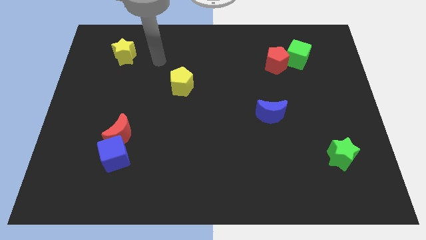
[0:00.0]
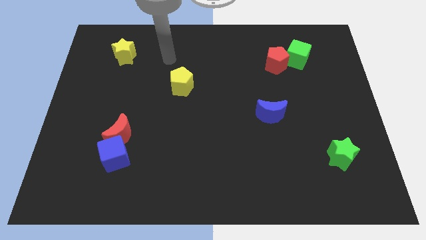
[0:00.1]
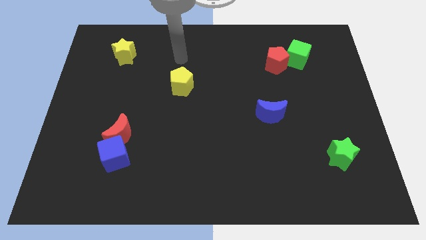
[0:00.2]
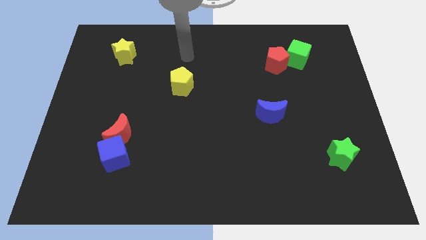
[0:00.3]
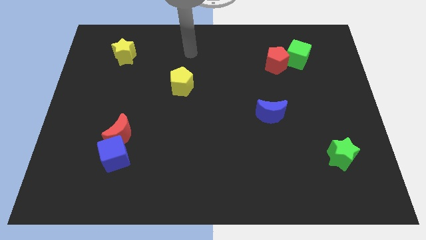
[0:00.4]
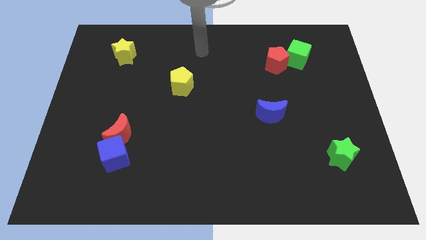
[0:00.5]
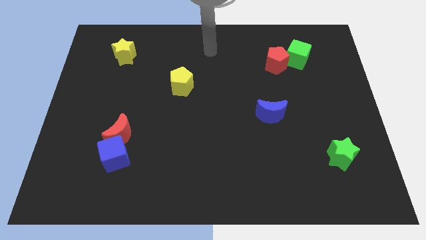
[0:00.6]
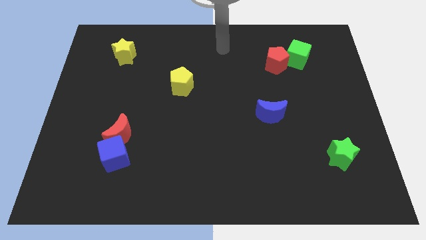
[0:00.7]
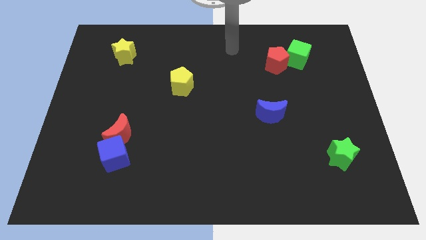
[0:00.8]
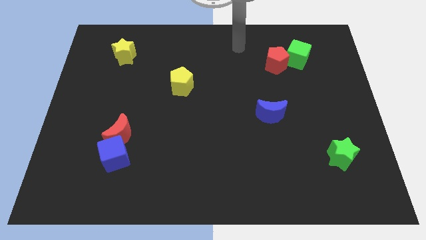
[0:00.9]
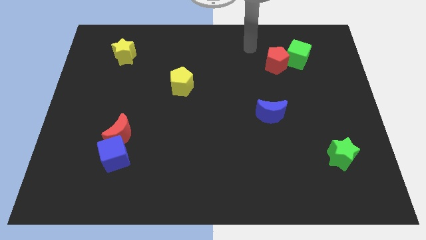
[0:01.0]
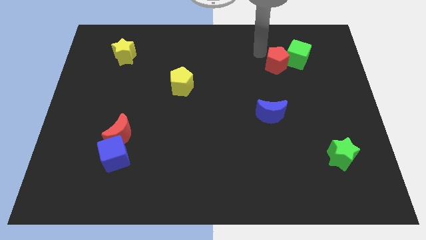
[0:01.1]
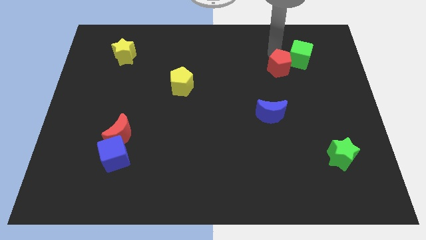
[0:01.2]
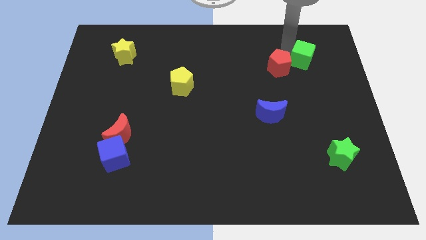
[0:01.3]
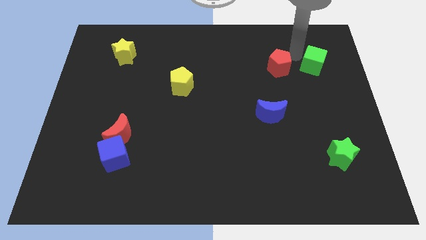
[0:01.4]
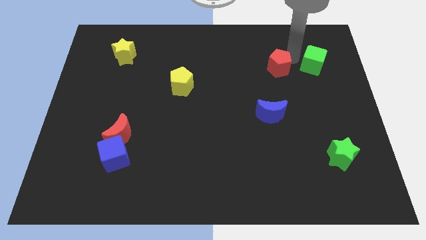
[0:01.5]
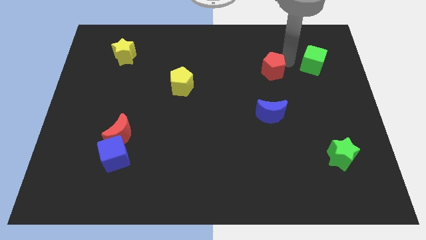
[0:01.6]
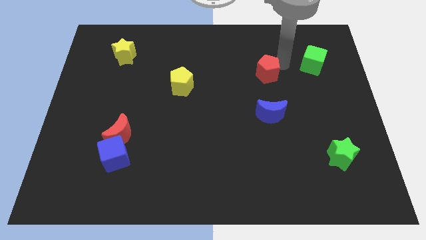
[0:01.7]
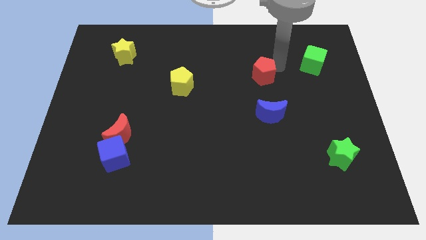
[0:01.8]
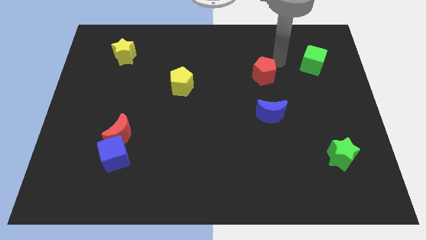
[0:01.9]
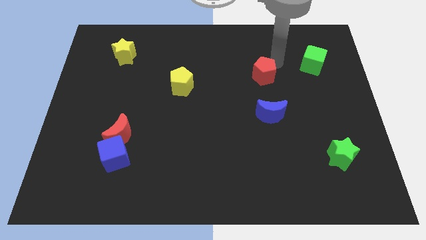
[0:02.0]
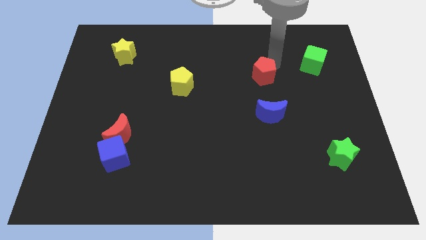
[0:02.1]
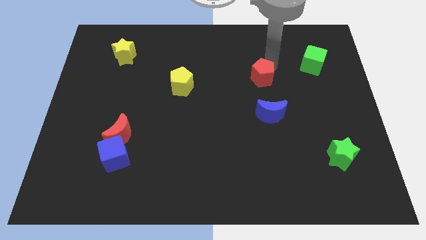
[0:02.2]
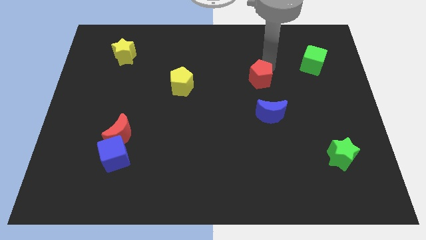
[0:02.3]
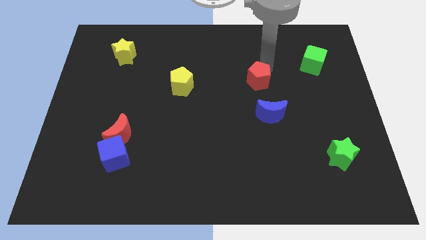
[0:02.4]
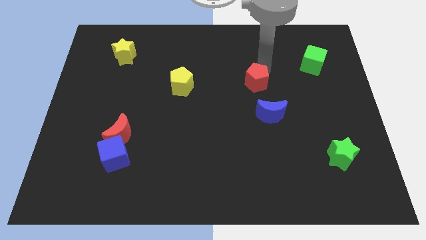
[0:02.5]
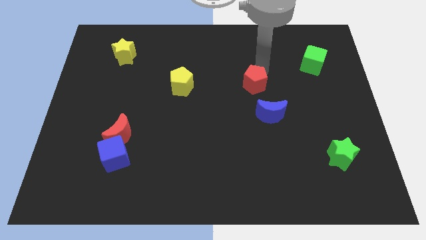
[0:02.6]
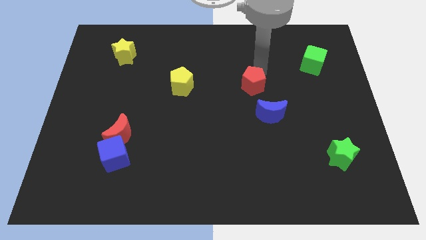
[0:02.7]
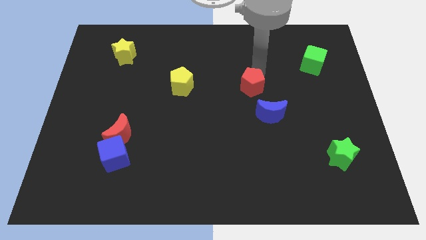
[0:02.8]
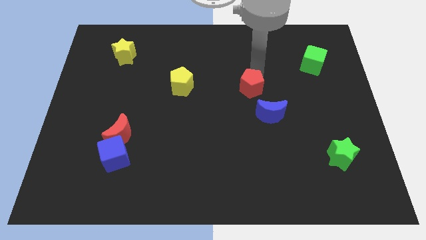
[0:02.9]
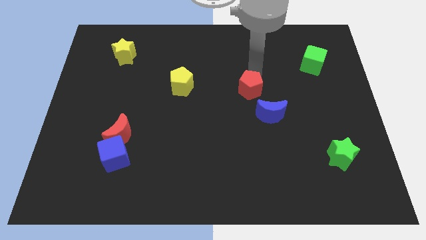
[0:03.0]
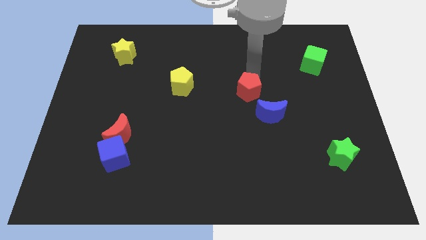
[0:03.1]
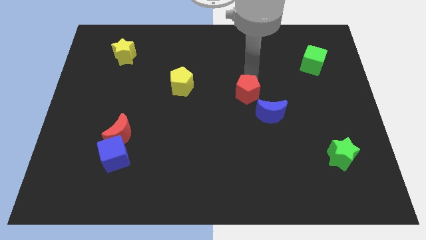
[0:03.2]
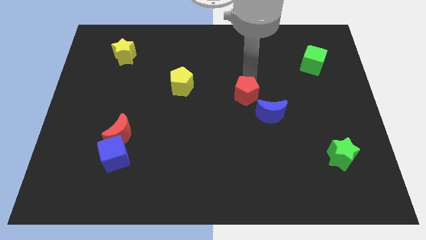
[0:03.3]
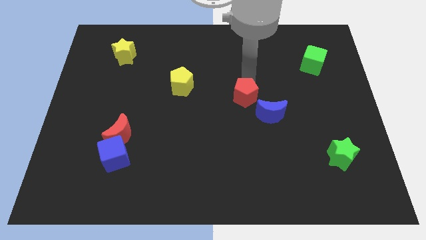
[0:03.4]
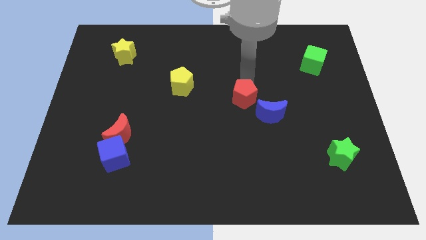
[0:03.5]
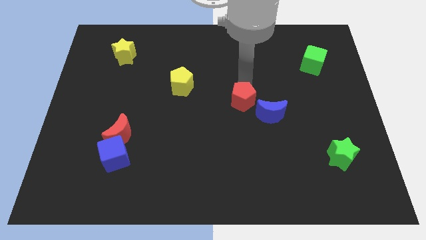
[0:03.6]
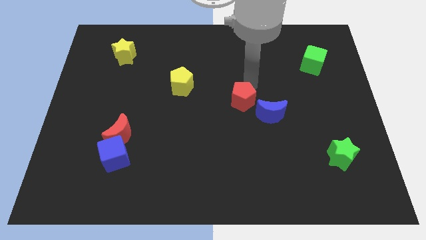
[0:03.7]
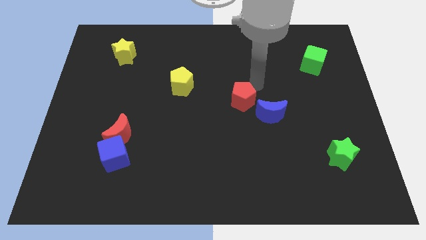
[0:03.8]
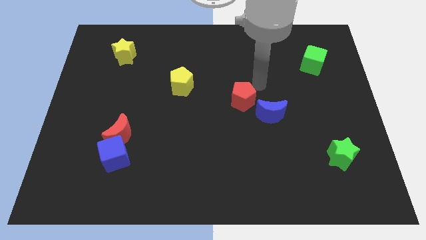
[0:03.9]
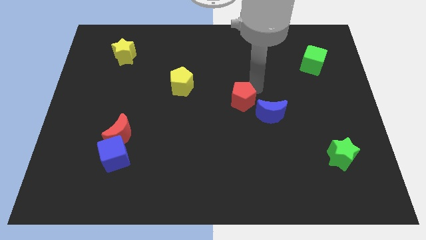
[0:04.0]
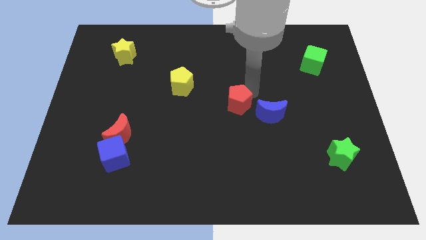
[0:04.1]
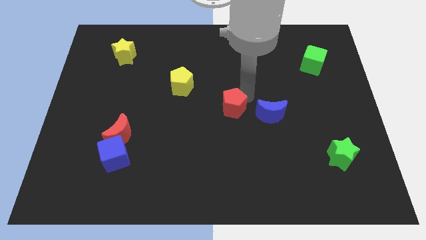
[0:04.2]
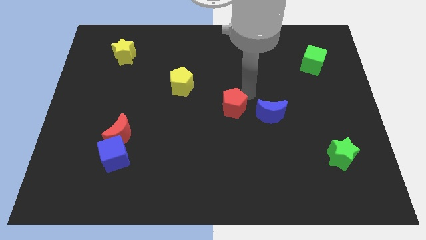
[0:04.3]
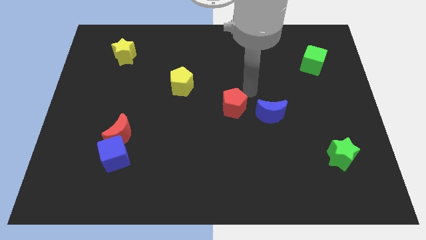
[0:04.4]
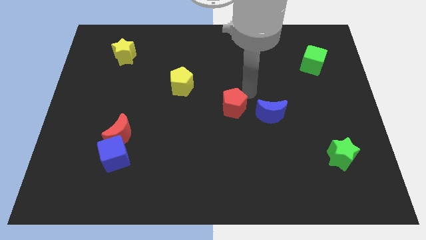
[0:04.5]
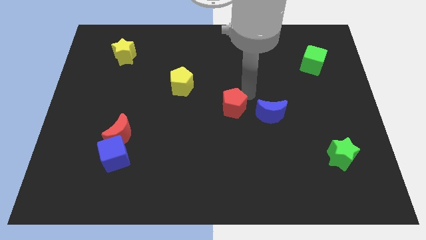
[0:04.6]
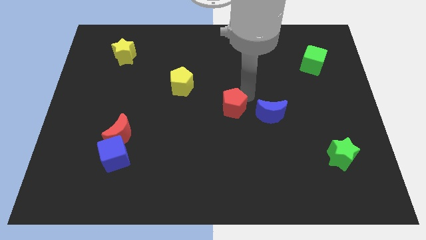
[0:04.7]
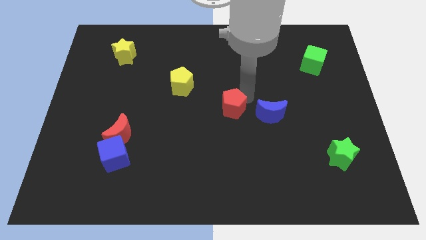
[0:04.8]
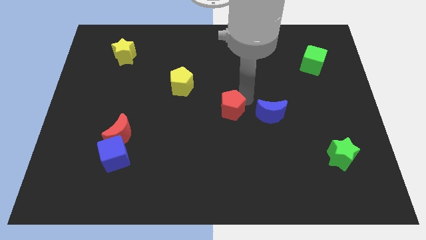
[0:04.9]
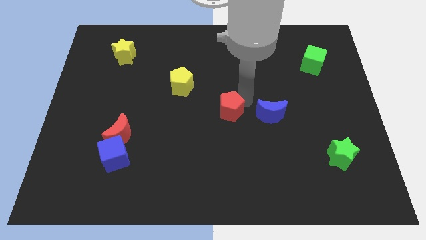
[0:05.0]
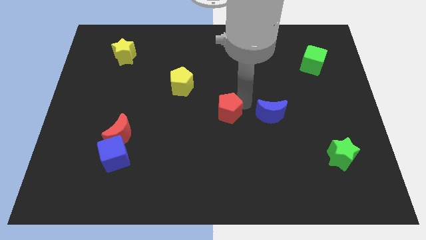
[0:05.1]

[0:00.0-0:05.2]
move the red pentagon diagonally down and left

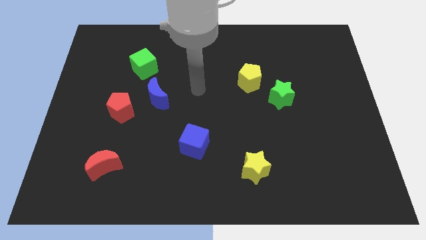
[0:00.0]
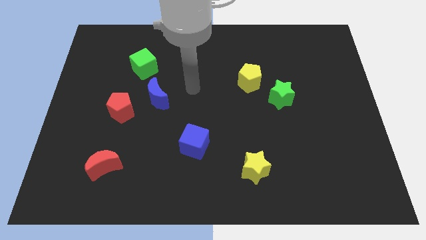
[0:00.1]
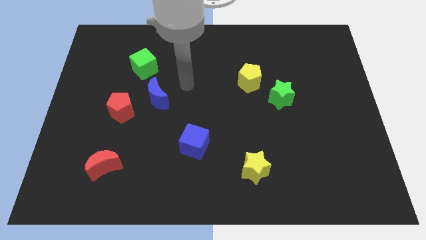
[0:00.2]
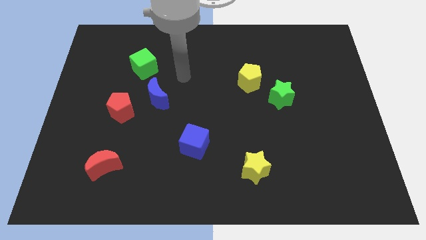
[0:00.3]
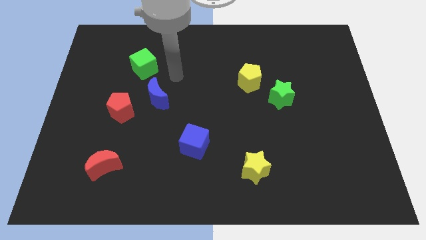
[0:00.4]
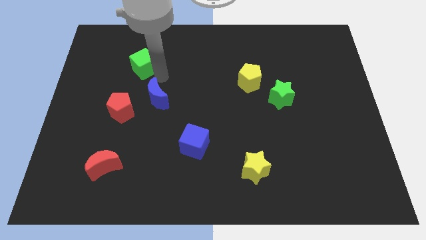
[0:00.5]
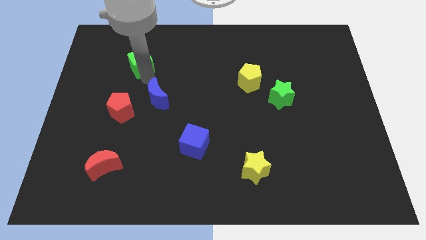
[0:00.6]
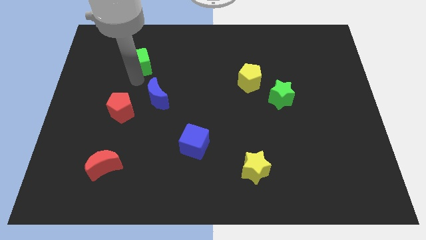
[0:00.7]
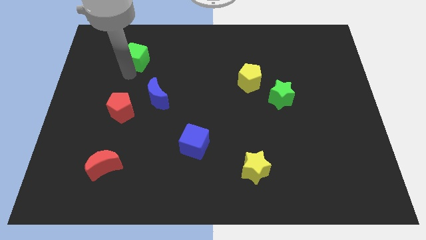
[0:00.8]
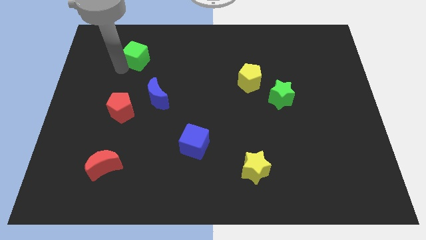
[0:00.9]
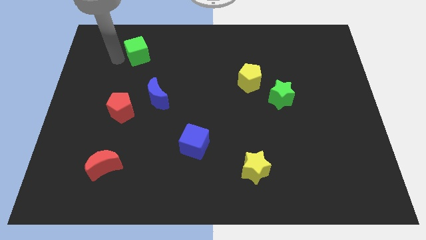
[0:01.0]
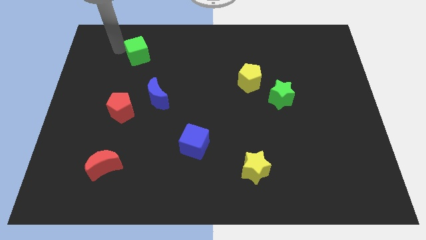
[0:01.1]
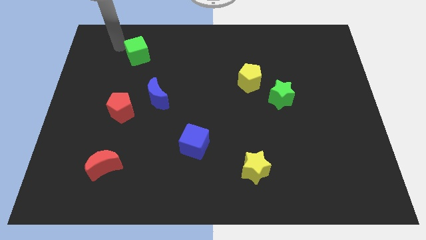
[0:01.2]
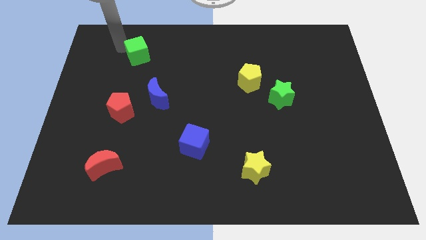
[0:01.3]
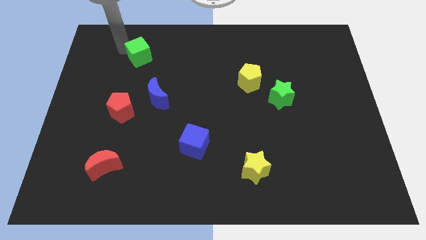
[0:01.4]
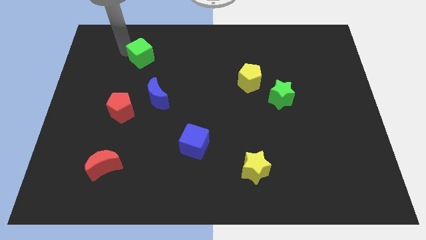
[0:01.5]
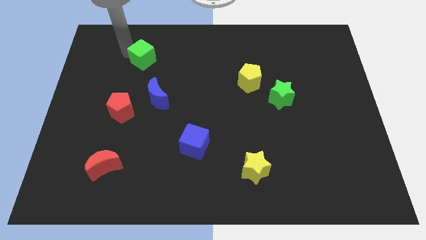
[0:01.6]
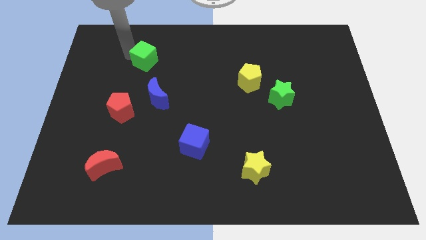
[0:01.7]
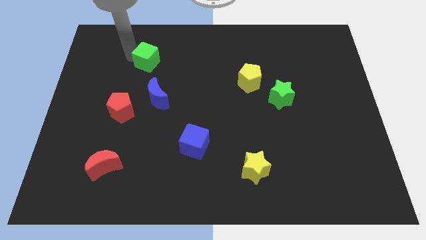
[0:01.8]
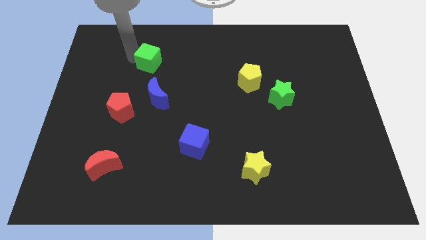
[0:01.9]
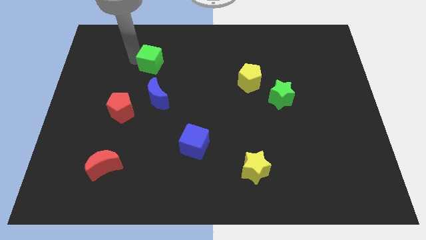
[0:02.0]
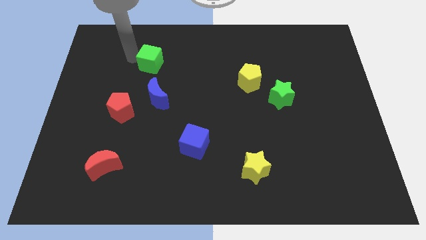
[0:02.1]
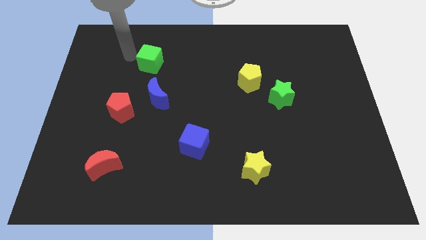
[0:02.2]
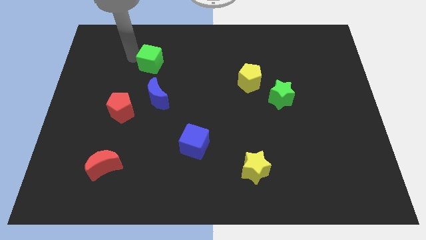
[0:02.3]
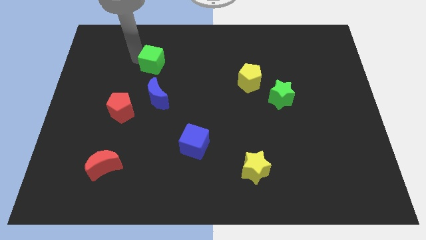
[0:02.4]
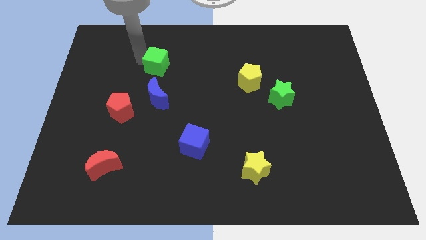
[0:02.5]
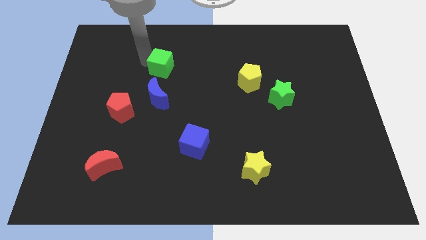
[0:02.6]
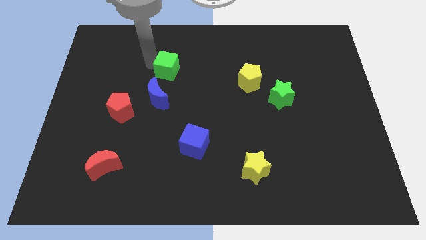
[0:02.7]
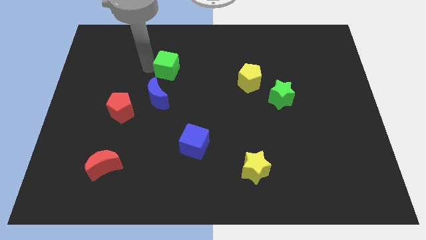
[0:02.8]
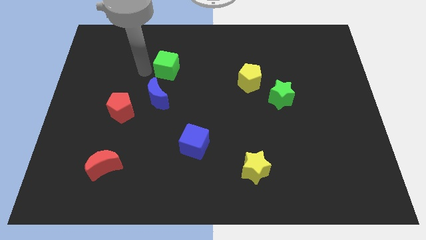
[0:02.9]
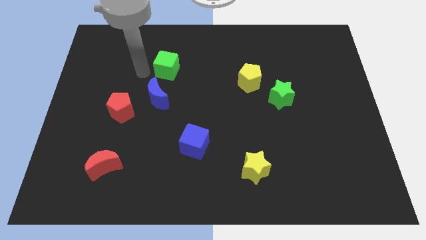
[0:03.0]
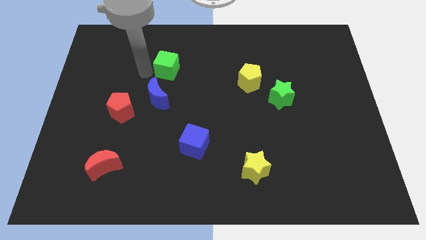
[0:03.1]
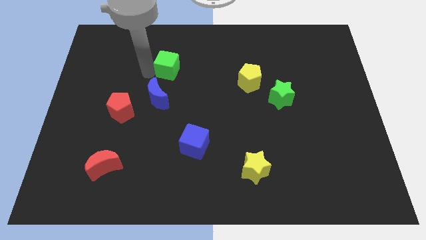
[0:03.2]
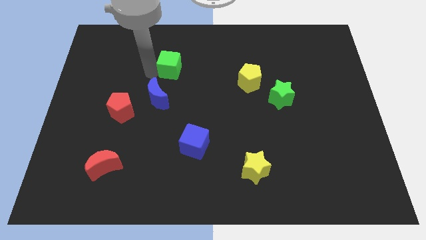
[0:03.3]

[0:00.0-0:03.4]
slide the green cube a bit to the right
